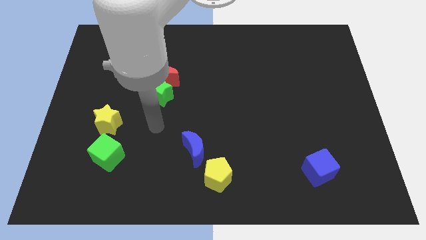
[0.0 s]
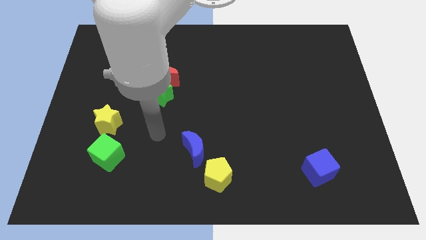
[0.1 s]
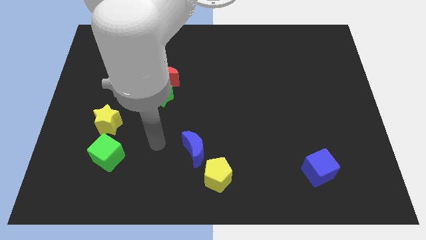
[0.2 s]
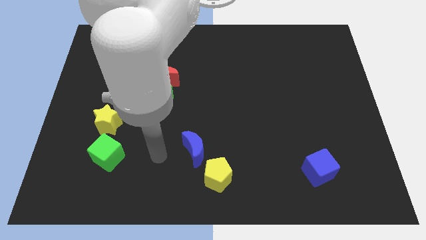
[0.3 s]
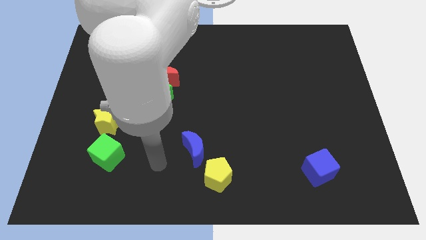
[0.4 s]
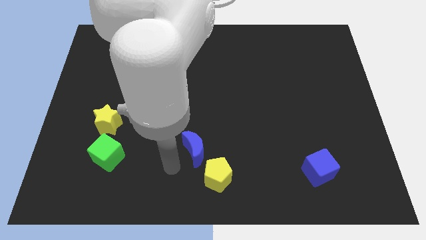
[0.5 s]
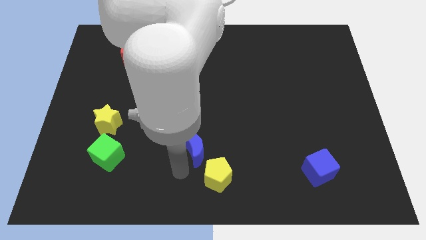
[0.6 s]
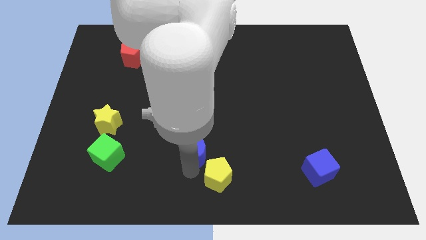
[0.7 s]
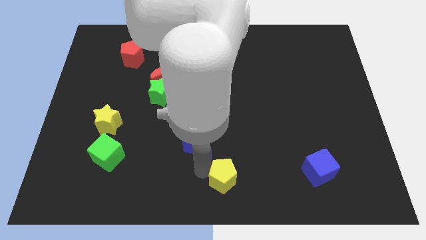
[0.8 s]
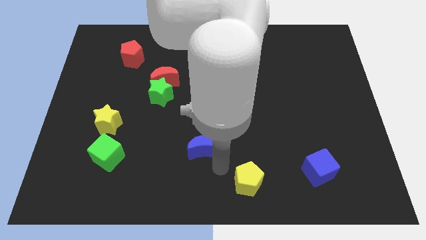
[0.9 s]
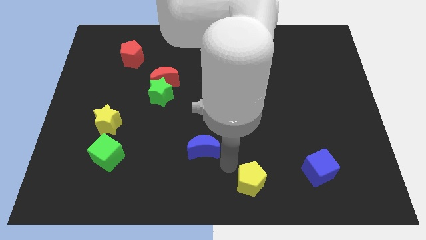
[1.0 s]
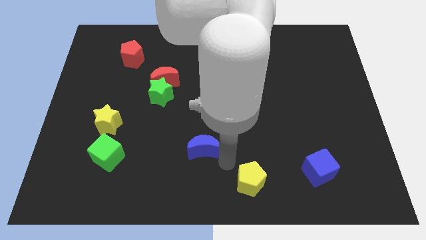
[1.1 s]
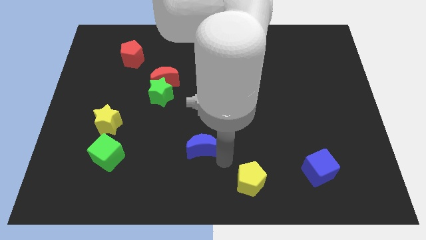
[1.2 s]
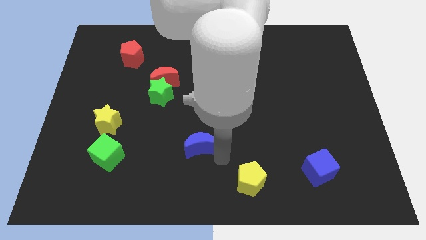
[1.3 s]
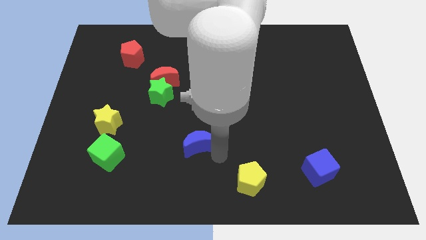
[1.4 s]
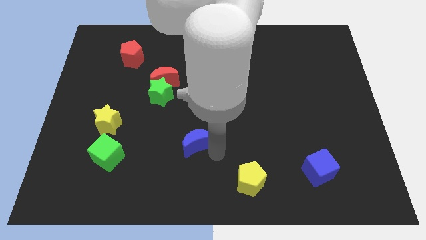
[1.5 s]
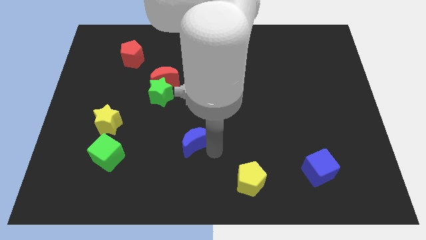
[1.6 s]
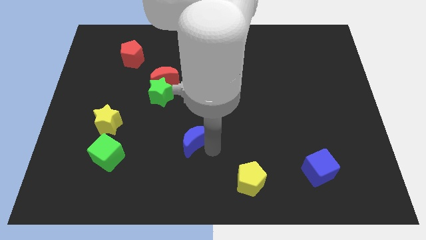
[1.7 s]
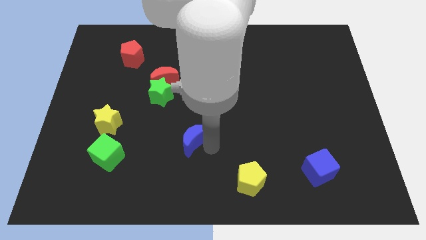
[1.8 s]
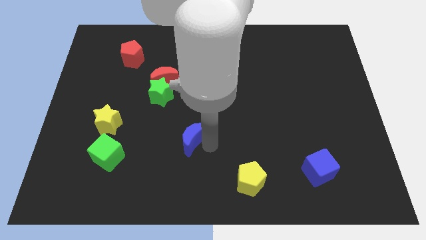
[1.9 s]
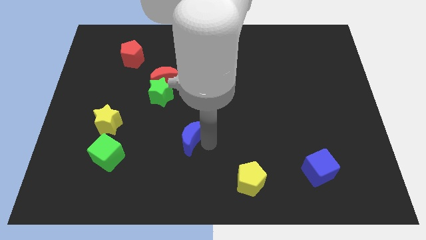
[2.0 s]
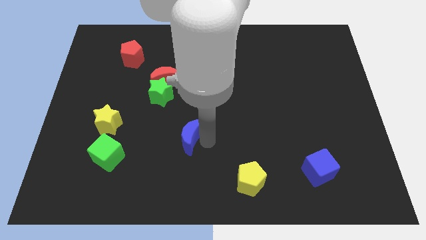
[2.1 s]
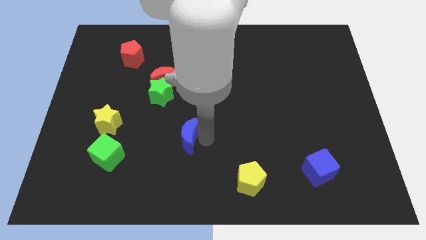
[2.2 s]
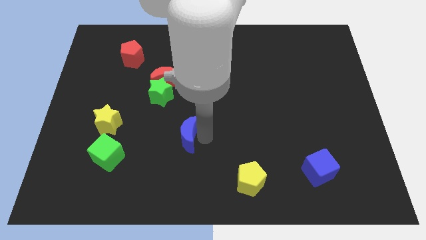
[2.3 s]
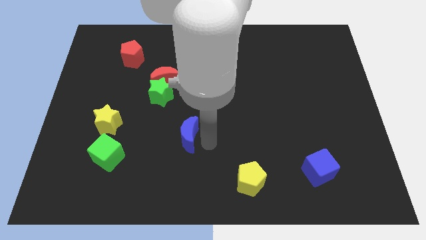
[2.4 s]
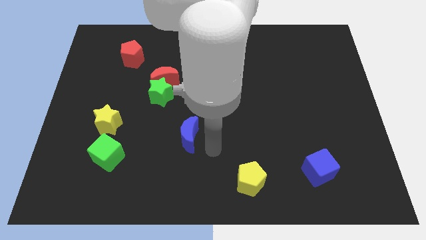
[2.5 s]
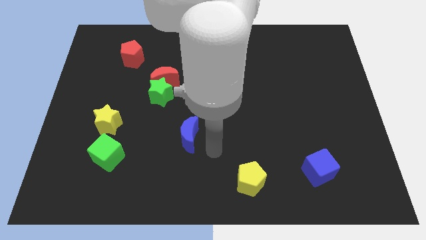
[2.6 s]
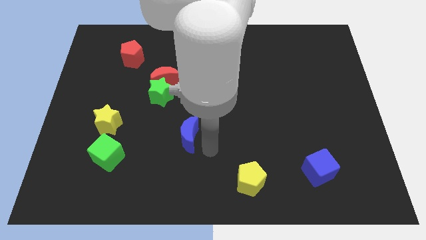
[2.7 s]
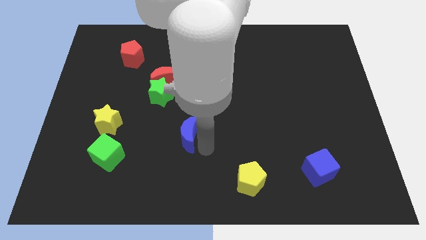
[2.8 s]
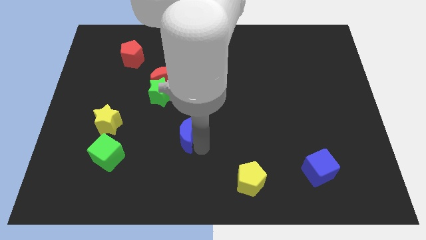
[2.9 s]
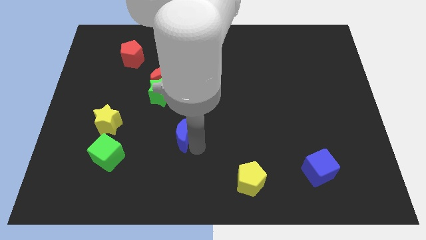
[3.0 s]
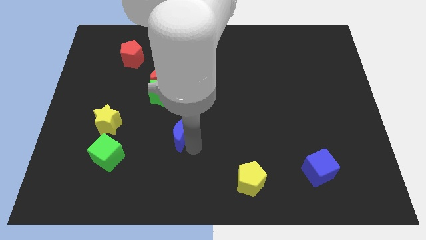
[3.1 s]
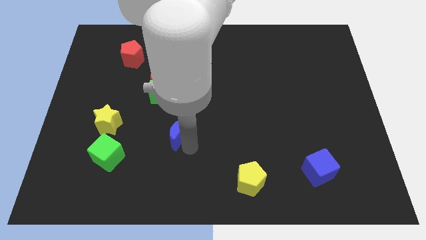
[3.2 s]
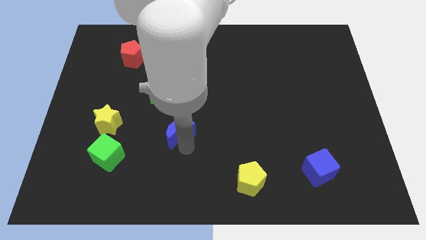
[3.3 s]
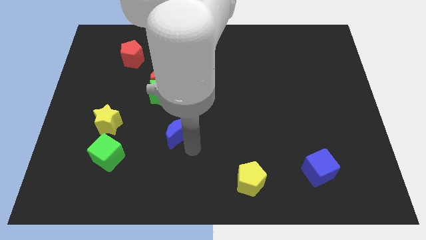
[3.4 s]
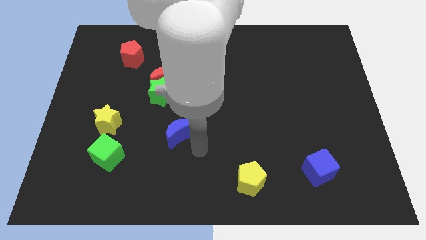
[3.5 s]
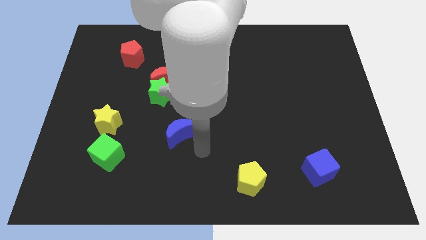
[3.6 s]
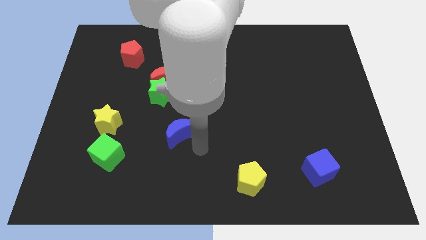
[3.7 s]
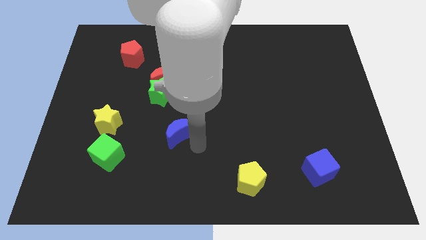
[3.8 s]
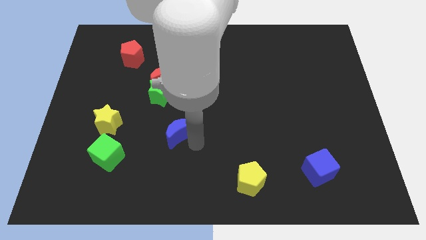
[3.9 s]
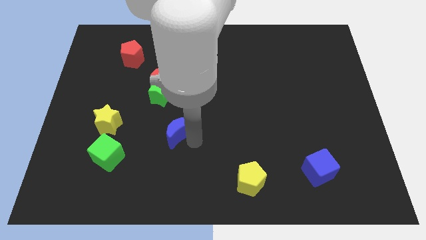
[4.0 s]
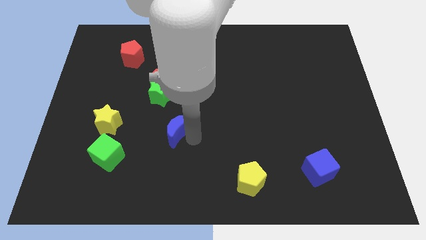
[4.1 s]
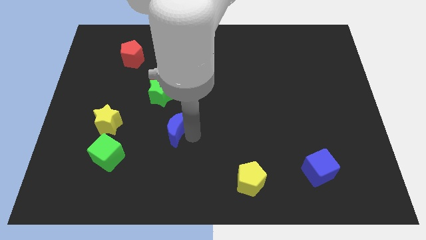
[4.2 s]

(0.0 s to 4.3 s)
slightly push the blue moon diagonally up and to the left

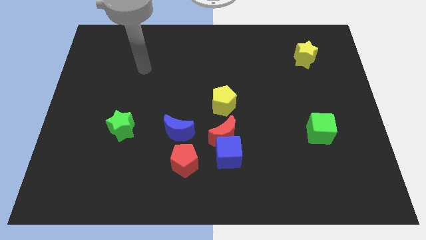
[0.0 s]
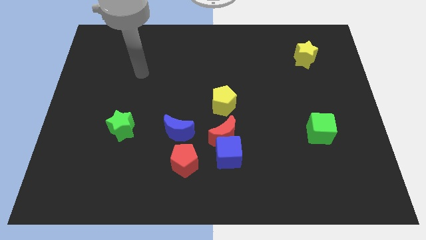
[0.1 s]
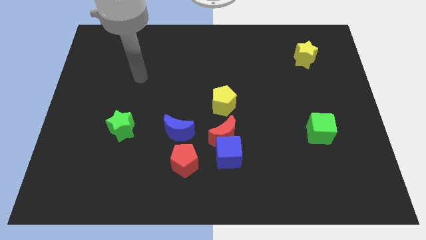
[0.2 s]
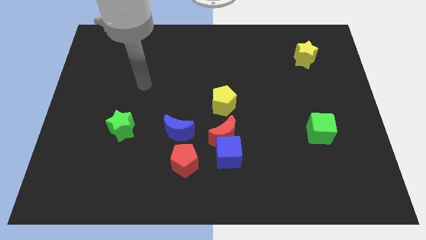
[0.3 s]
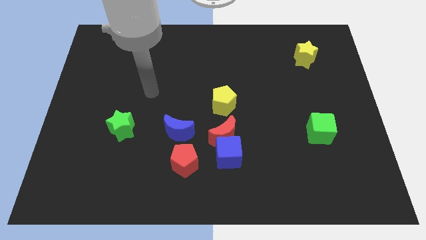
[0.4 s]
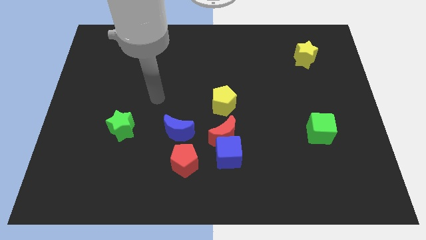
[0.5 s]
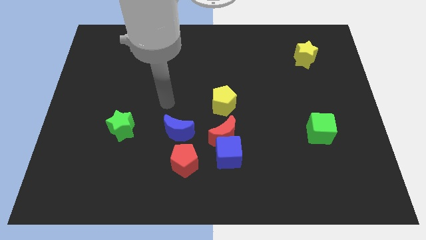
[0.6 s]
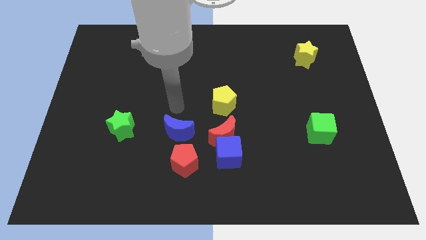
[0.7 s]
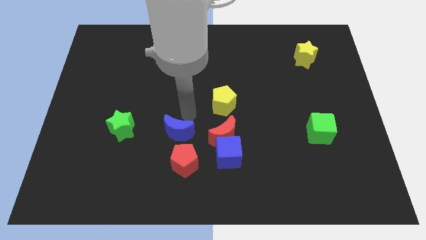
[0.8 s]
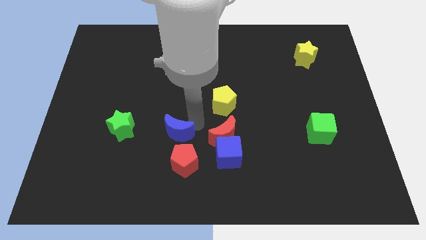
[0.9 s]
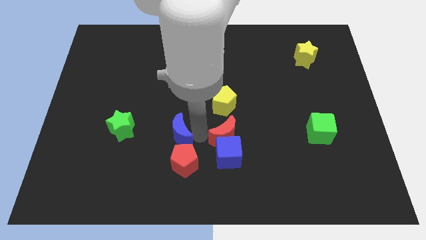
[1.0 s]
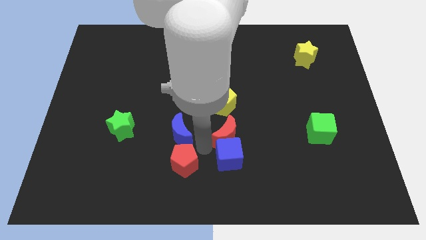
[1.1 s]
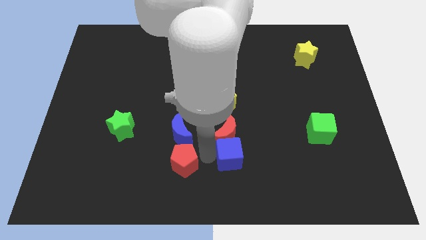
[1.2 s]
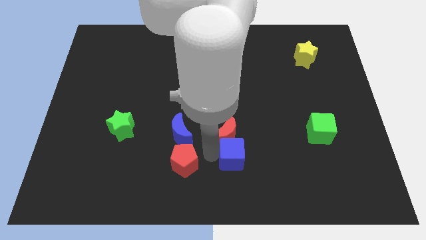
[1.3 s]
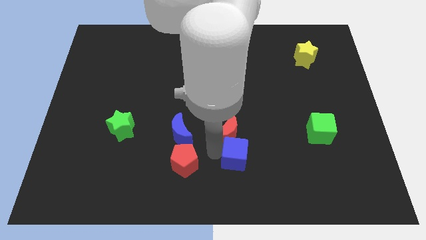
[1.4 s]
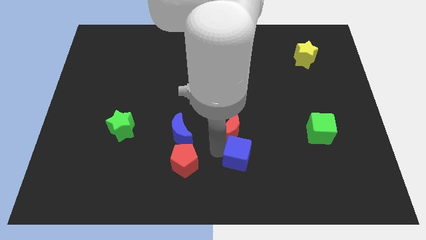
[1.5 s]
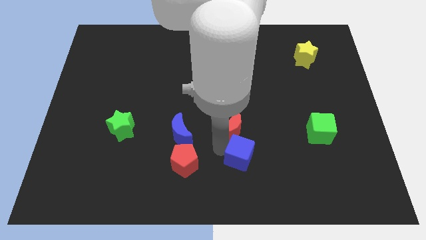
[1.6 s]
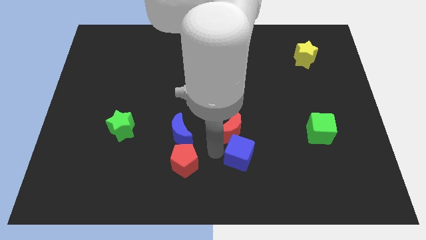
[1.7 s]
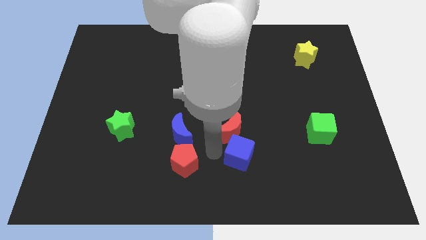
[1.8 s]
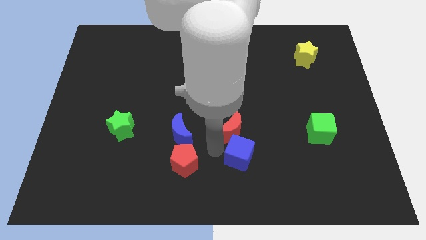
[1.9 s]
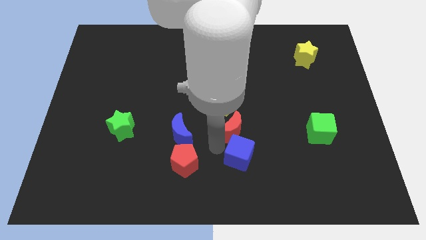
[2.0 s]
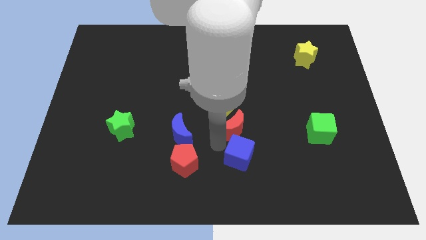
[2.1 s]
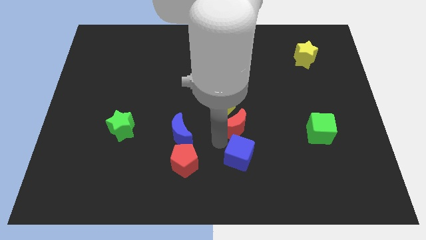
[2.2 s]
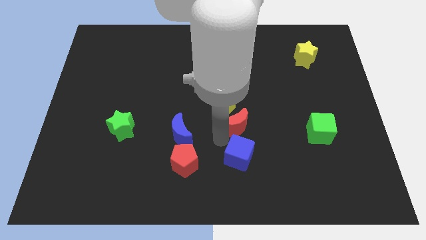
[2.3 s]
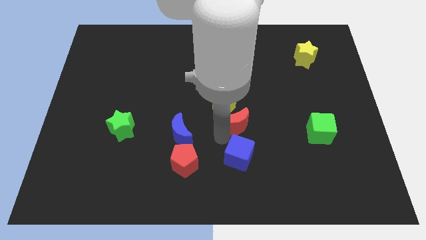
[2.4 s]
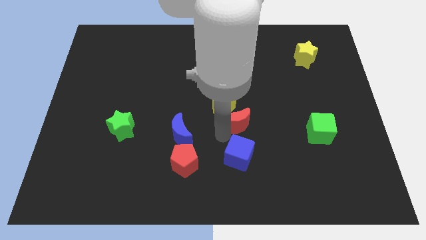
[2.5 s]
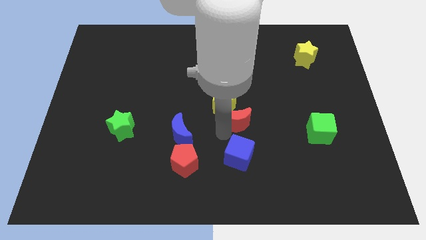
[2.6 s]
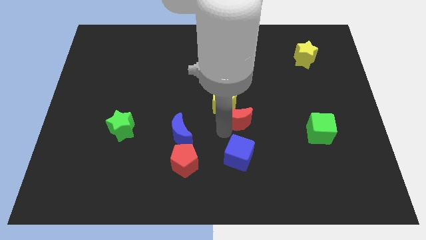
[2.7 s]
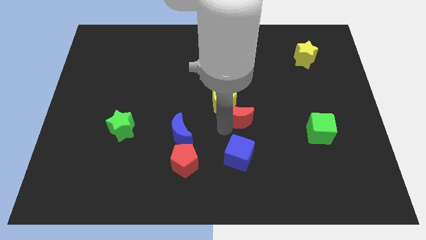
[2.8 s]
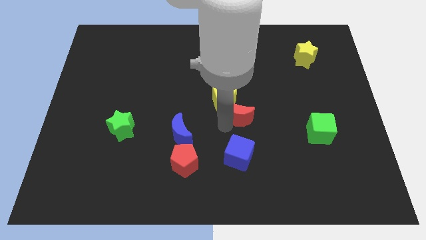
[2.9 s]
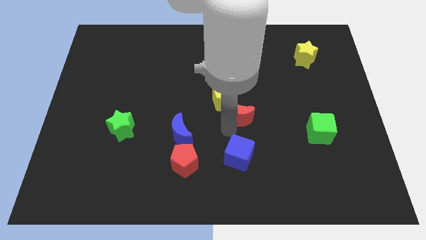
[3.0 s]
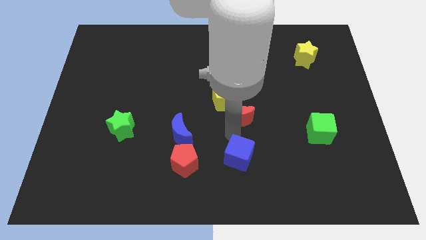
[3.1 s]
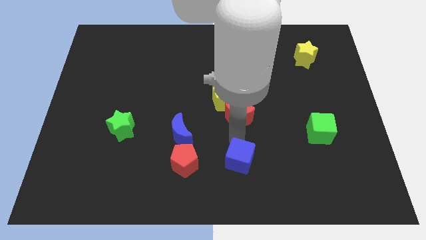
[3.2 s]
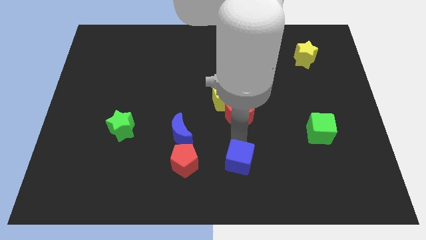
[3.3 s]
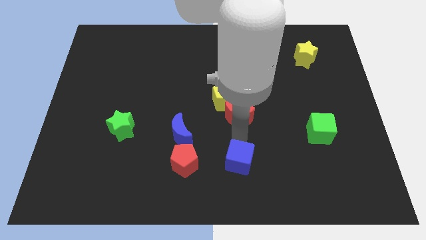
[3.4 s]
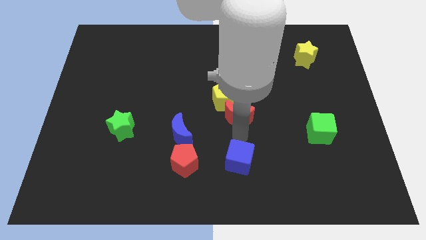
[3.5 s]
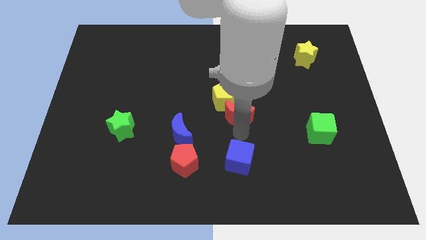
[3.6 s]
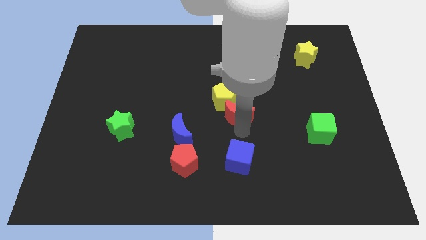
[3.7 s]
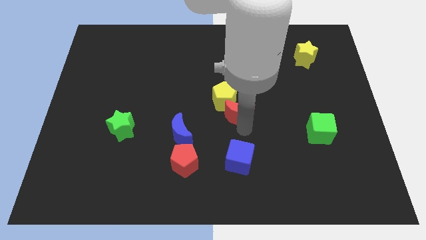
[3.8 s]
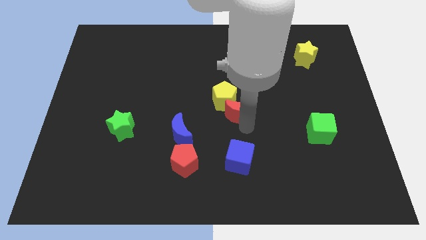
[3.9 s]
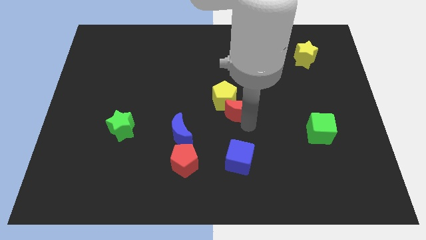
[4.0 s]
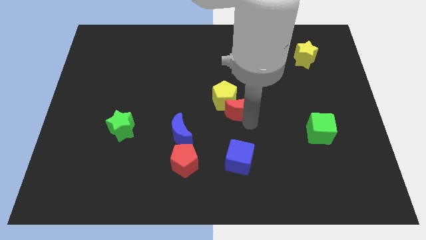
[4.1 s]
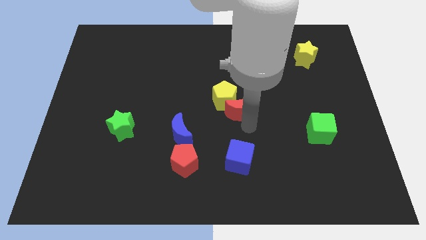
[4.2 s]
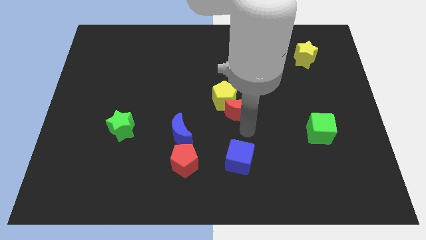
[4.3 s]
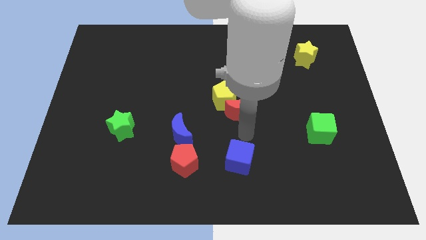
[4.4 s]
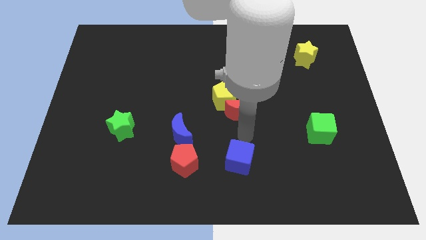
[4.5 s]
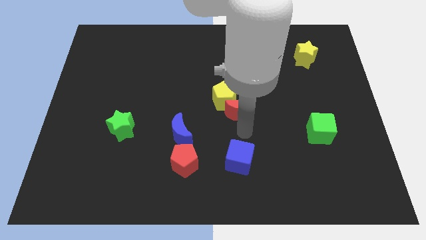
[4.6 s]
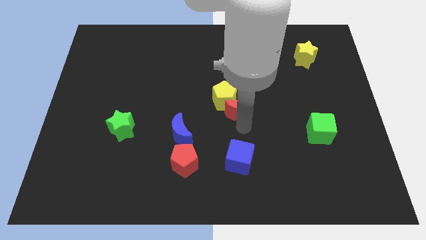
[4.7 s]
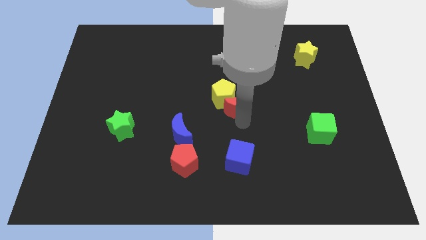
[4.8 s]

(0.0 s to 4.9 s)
move the red moon up a little
